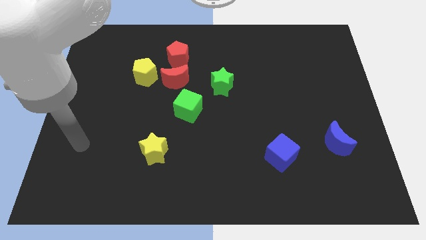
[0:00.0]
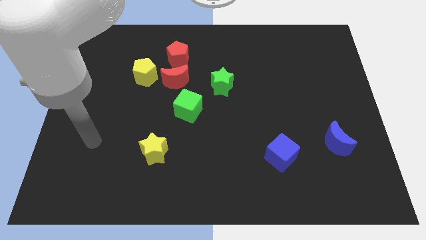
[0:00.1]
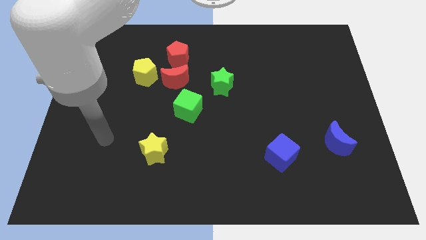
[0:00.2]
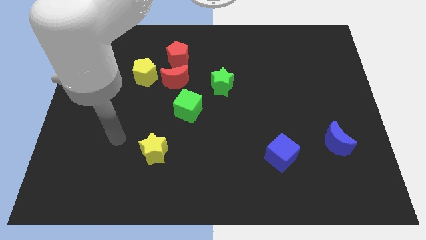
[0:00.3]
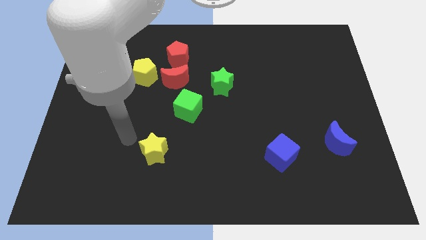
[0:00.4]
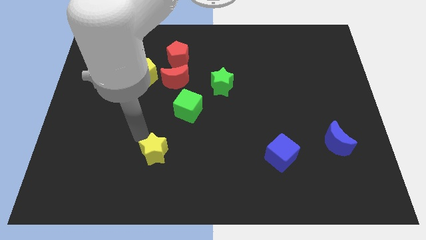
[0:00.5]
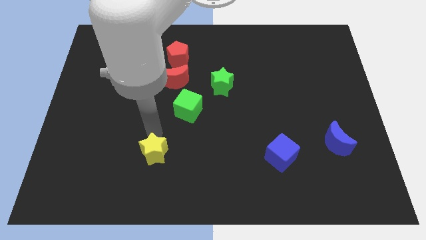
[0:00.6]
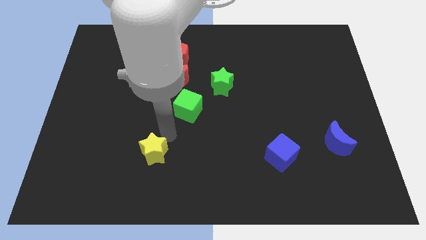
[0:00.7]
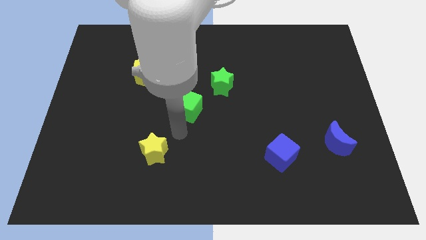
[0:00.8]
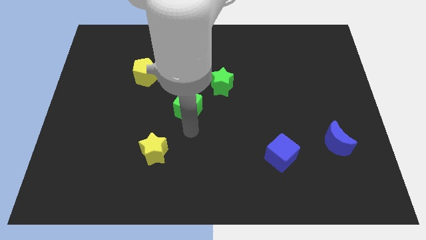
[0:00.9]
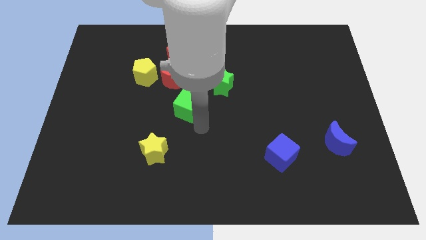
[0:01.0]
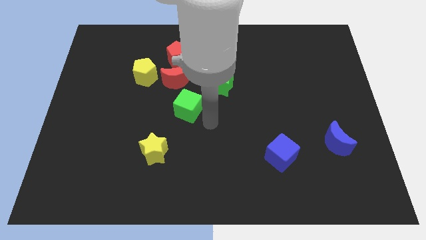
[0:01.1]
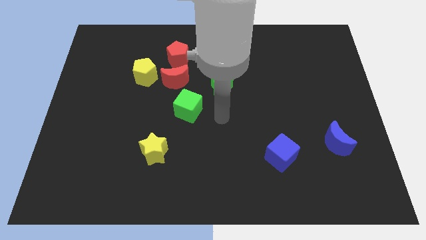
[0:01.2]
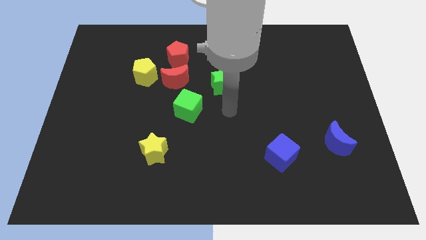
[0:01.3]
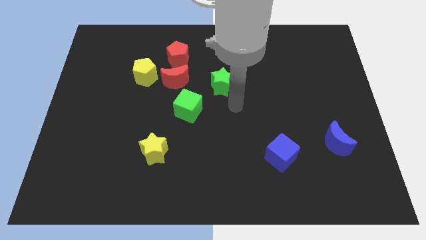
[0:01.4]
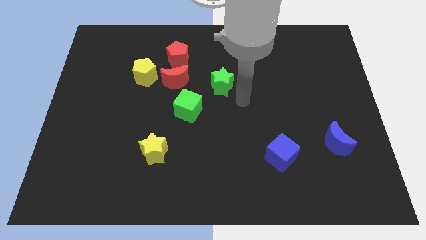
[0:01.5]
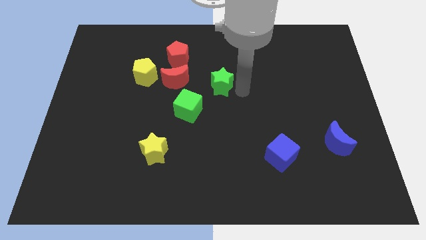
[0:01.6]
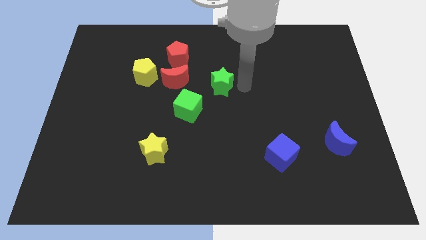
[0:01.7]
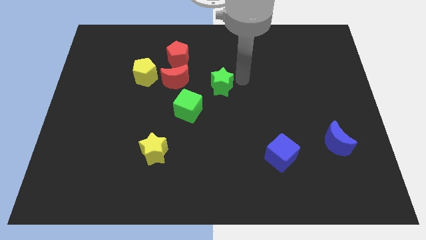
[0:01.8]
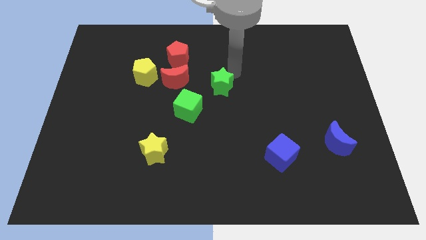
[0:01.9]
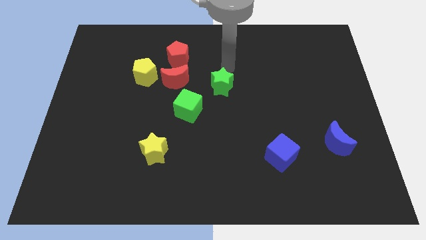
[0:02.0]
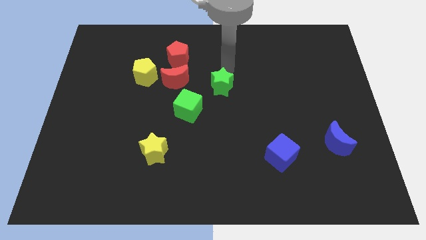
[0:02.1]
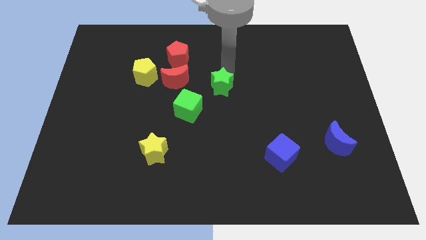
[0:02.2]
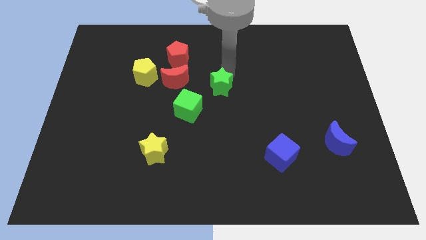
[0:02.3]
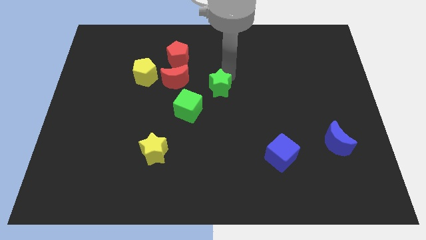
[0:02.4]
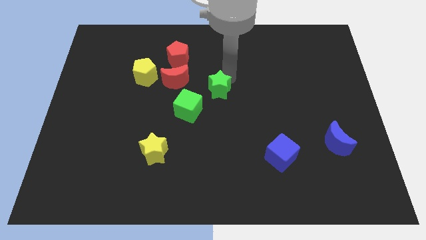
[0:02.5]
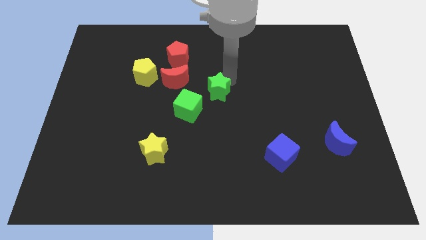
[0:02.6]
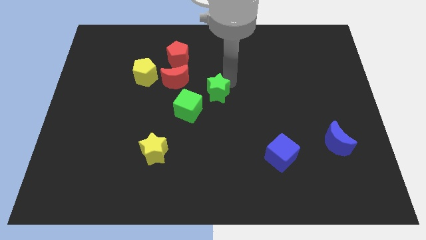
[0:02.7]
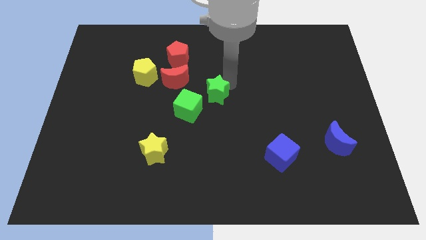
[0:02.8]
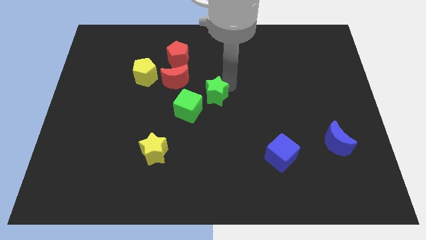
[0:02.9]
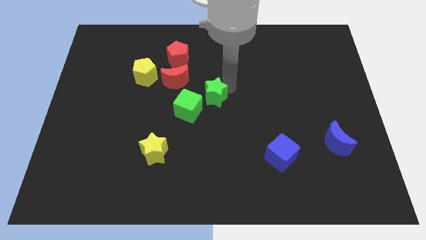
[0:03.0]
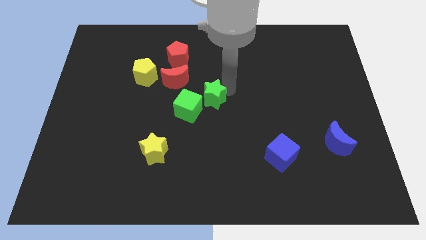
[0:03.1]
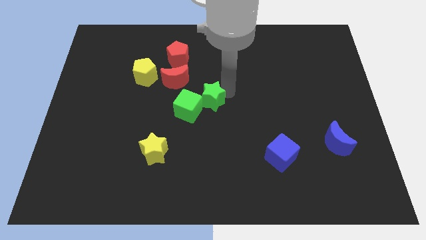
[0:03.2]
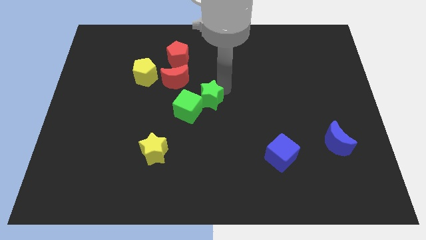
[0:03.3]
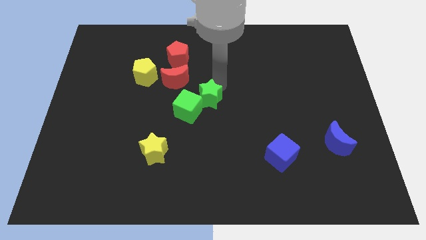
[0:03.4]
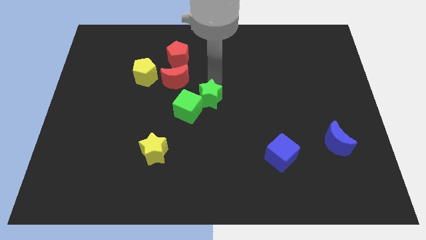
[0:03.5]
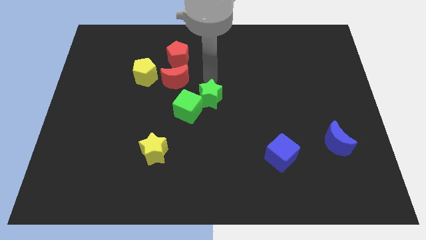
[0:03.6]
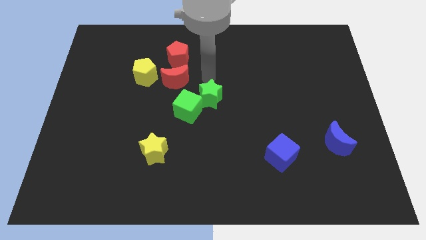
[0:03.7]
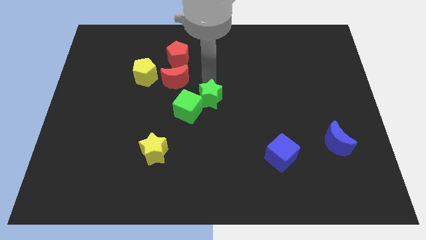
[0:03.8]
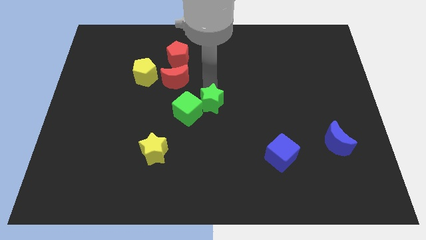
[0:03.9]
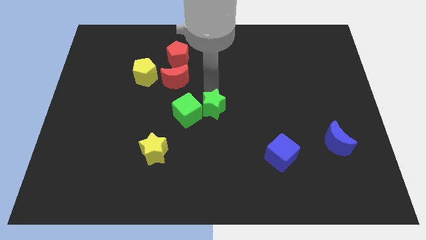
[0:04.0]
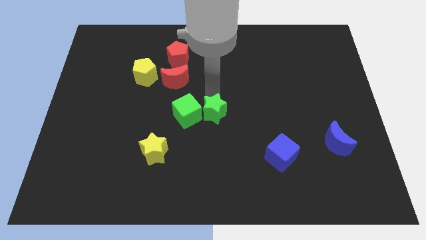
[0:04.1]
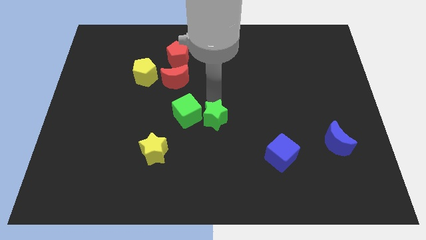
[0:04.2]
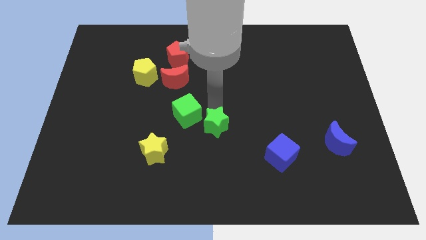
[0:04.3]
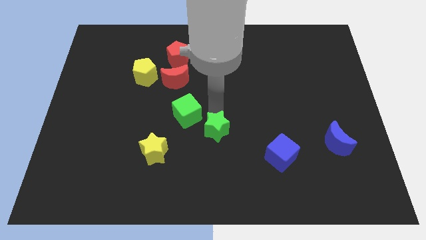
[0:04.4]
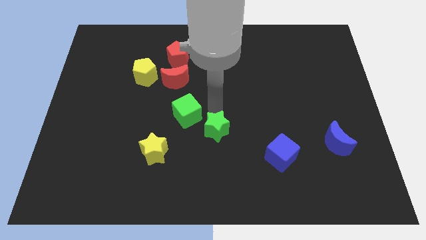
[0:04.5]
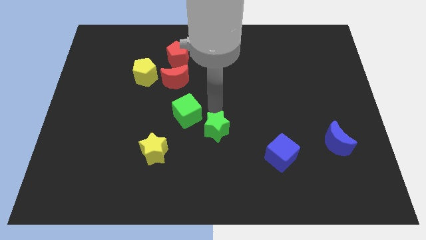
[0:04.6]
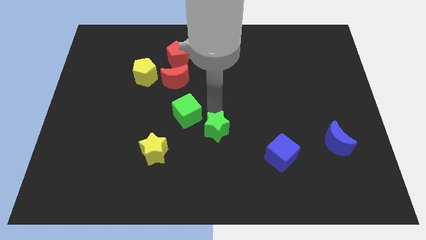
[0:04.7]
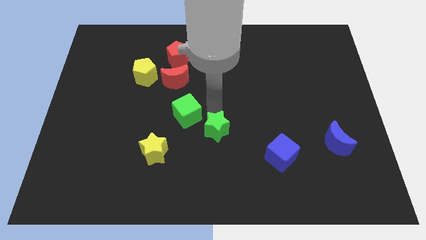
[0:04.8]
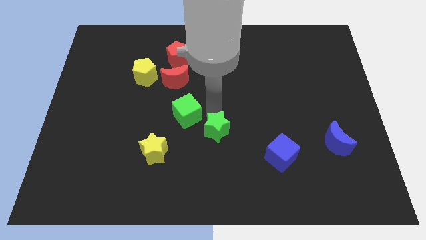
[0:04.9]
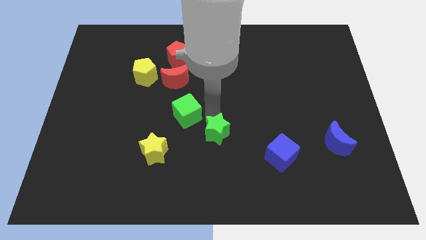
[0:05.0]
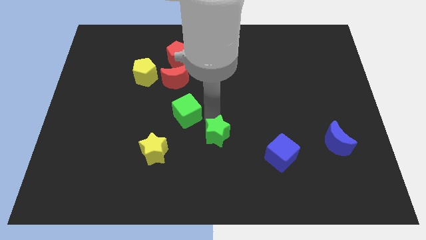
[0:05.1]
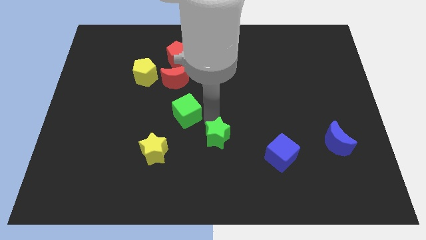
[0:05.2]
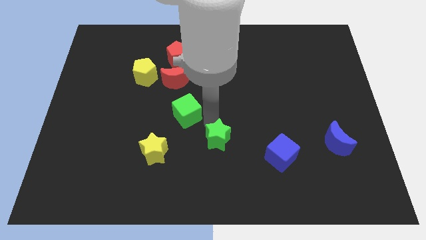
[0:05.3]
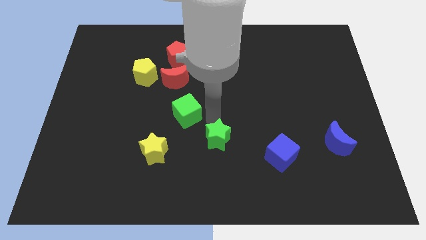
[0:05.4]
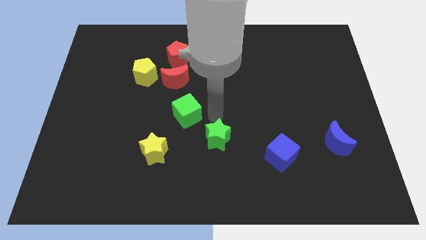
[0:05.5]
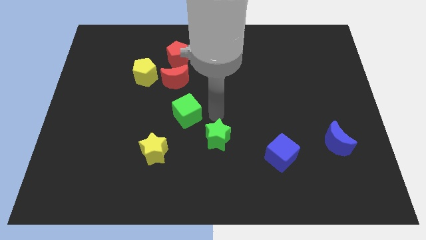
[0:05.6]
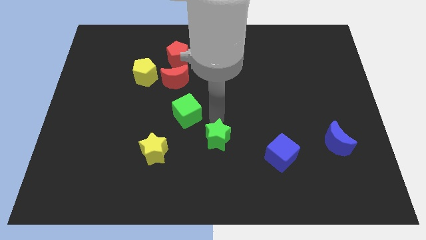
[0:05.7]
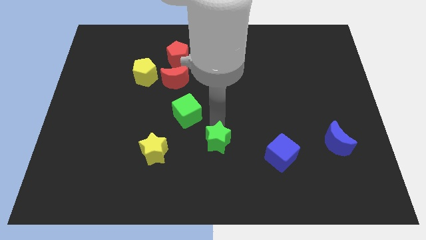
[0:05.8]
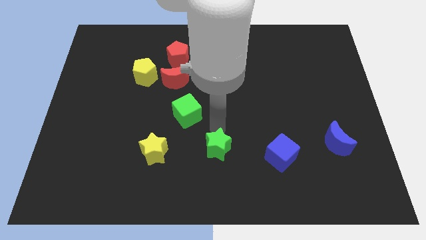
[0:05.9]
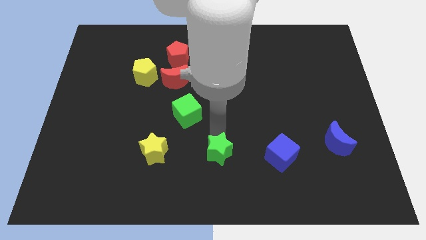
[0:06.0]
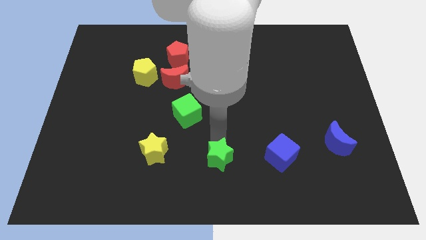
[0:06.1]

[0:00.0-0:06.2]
push the green star to the bottom side
